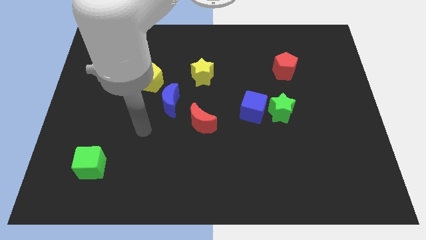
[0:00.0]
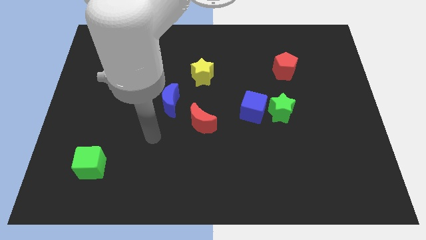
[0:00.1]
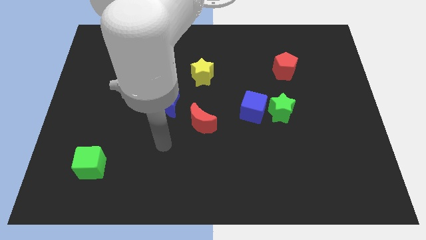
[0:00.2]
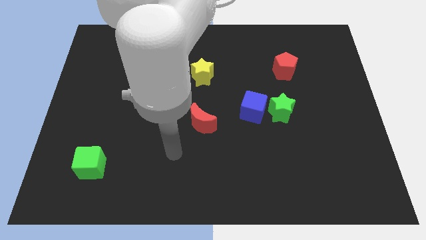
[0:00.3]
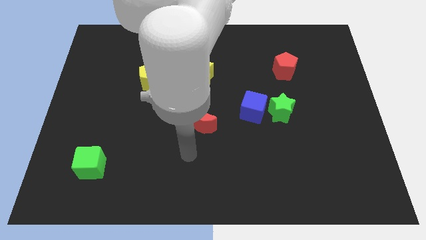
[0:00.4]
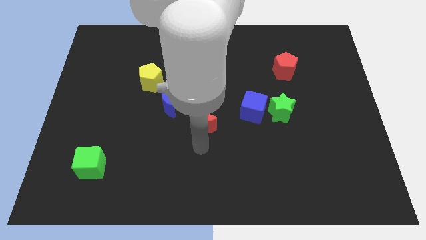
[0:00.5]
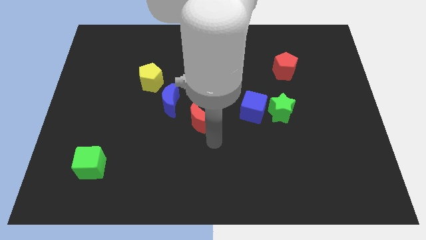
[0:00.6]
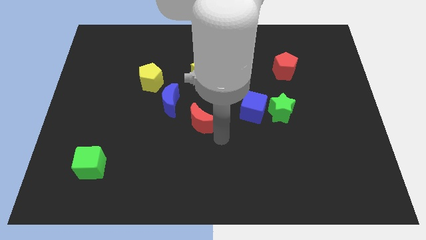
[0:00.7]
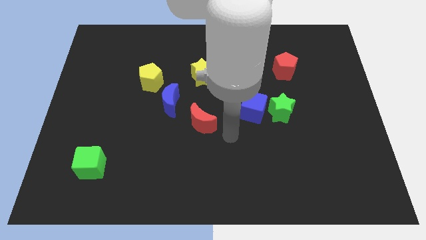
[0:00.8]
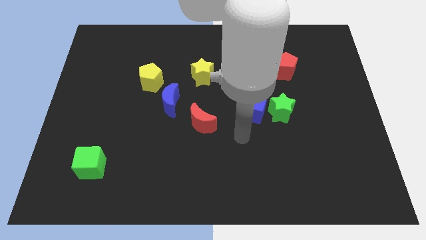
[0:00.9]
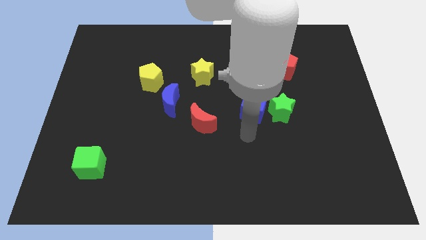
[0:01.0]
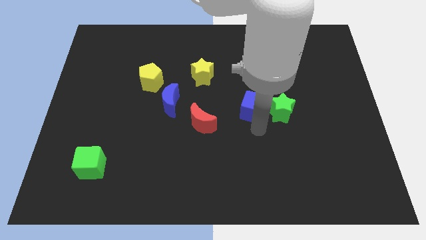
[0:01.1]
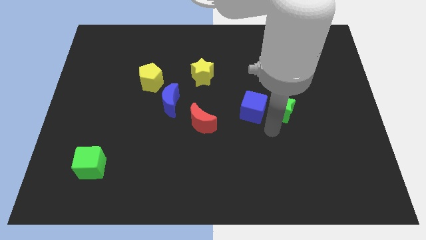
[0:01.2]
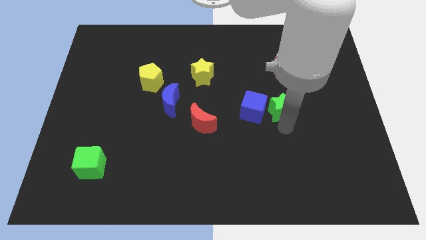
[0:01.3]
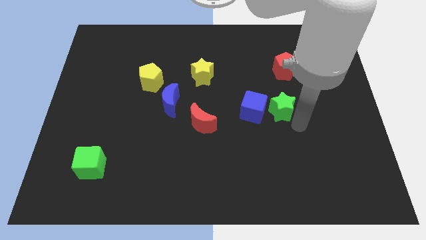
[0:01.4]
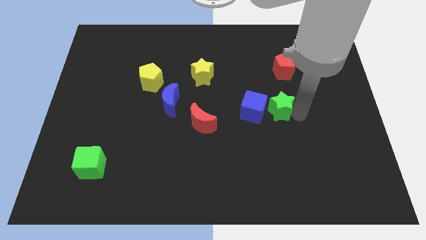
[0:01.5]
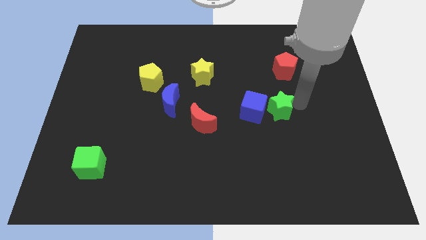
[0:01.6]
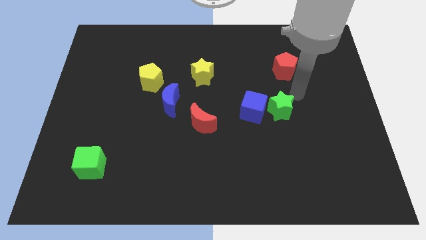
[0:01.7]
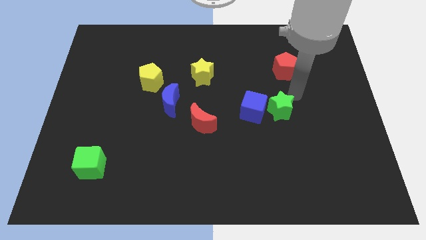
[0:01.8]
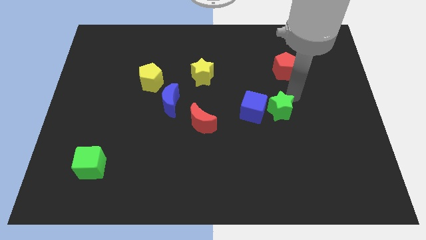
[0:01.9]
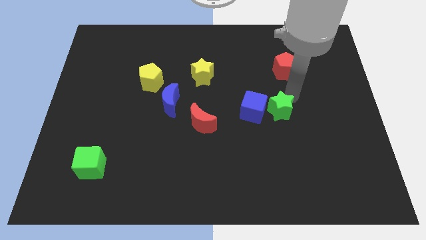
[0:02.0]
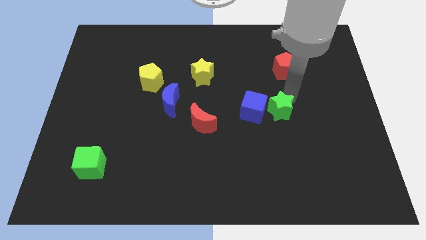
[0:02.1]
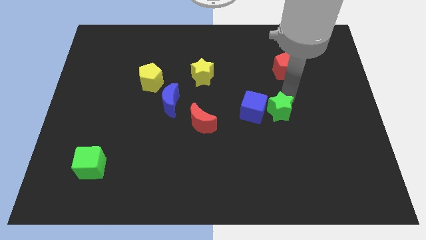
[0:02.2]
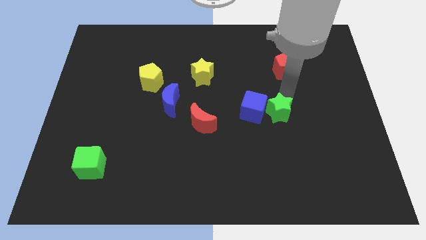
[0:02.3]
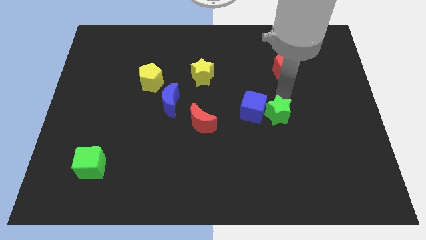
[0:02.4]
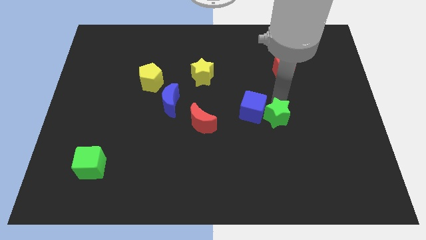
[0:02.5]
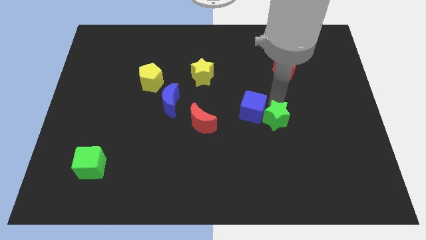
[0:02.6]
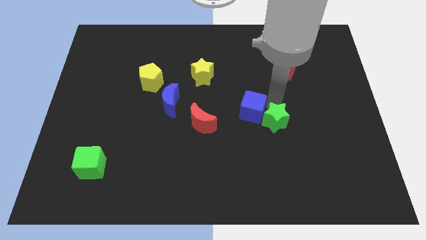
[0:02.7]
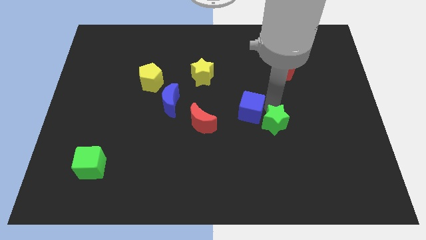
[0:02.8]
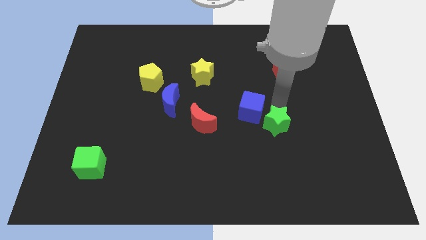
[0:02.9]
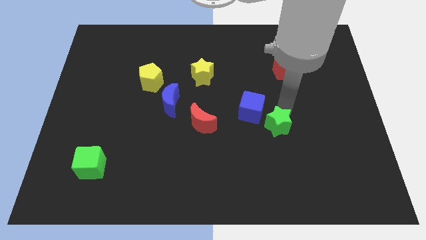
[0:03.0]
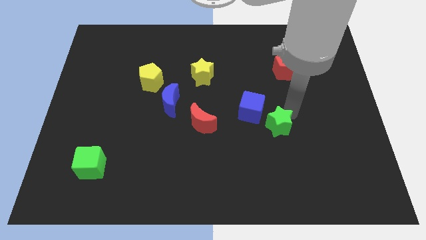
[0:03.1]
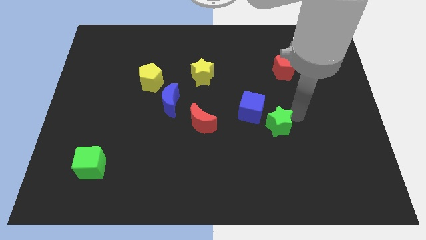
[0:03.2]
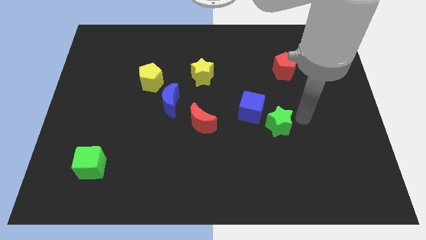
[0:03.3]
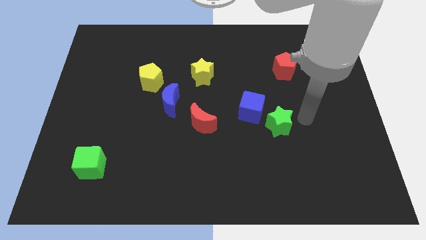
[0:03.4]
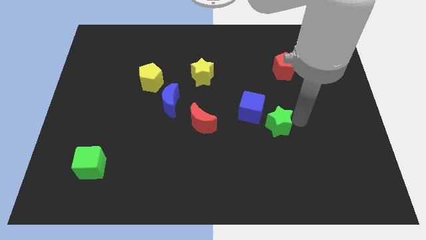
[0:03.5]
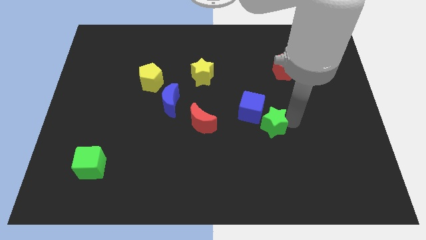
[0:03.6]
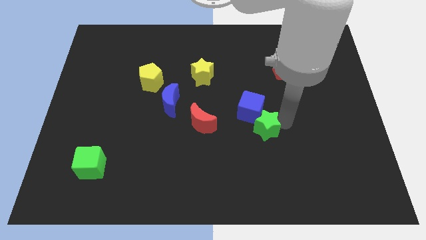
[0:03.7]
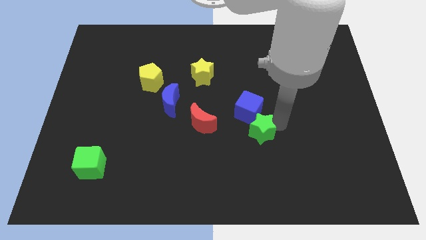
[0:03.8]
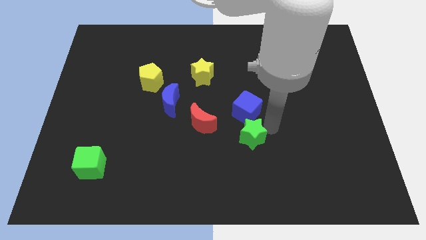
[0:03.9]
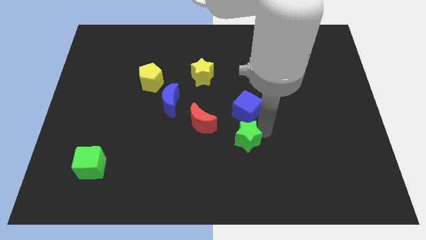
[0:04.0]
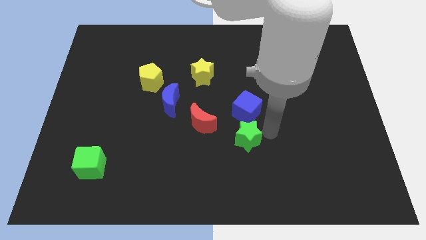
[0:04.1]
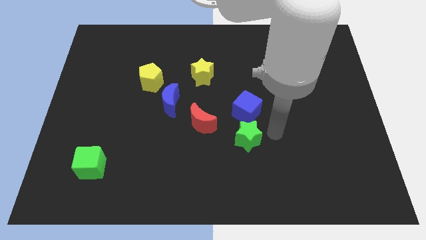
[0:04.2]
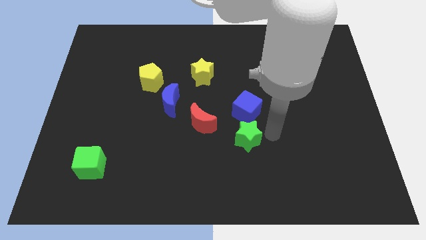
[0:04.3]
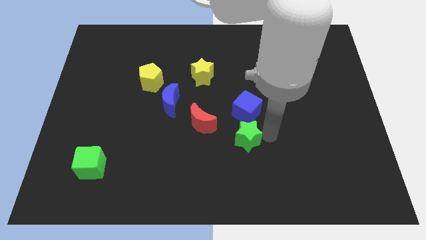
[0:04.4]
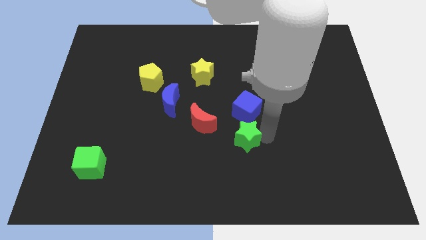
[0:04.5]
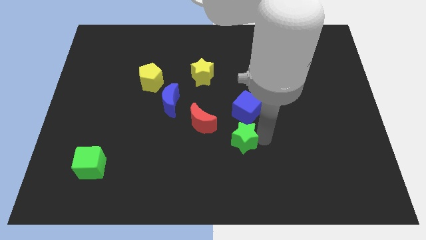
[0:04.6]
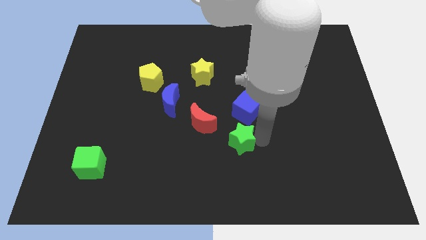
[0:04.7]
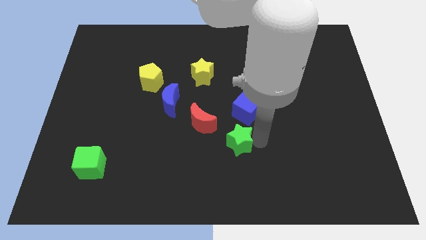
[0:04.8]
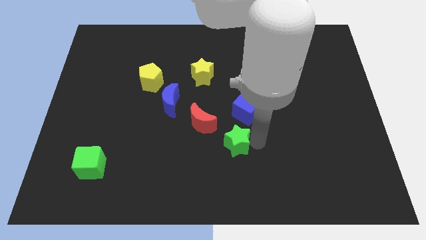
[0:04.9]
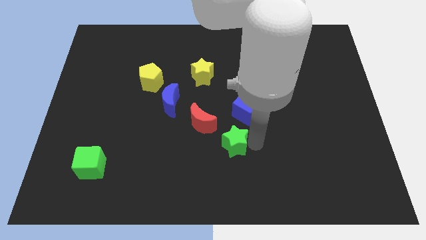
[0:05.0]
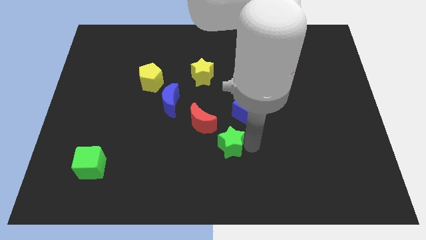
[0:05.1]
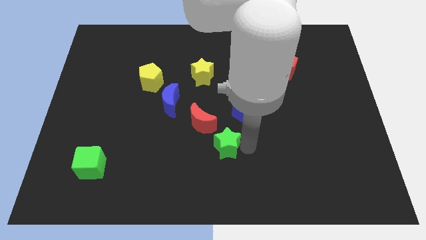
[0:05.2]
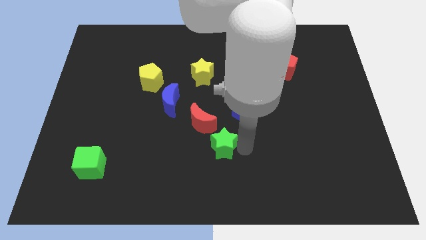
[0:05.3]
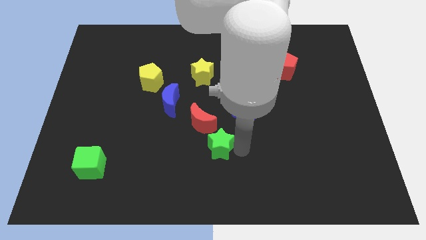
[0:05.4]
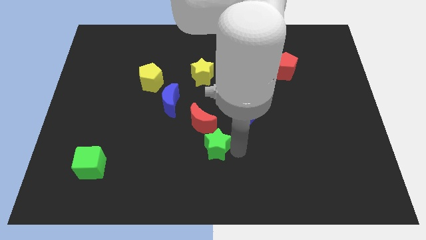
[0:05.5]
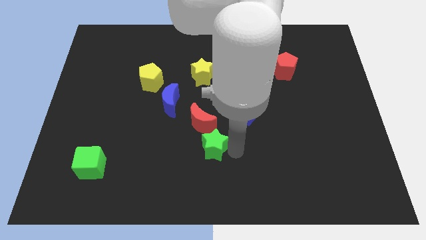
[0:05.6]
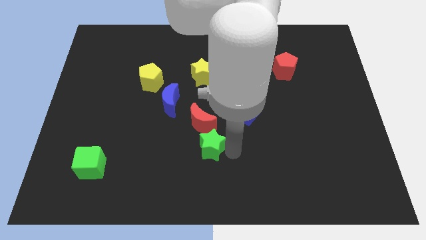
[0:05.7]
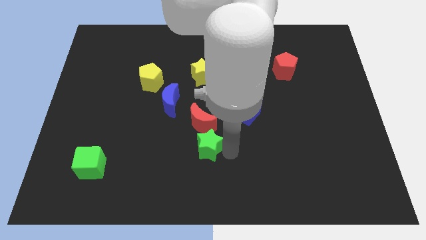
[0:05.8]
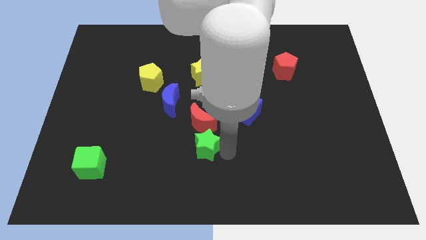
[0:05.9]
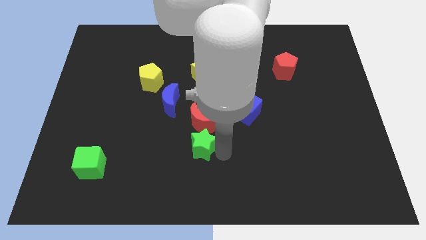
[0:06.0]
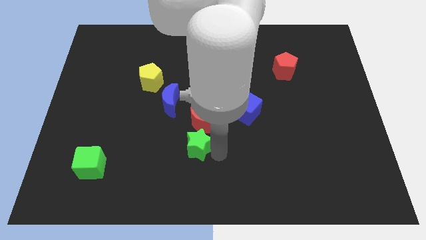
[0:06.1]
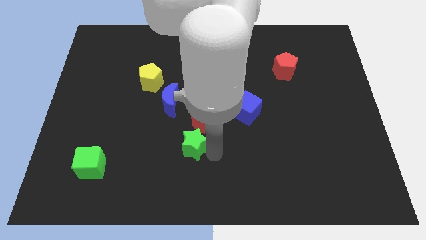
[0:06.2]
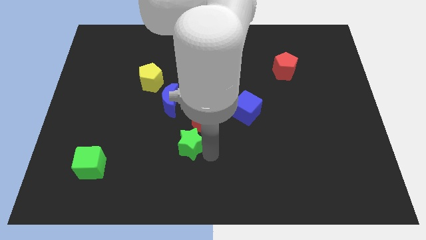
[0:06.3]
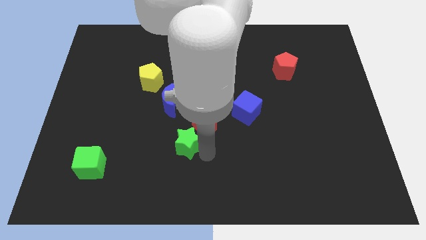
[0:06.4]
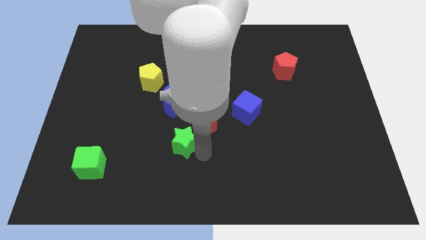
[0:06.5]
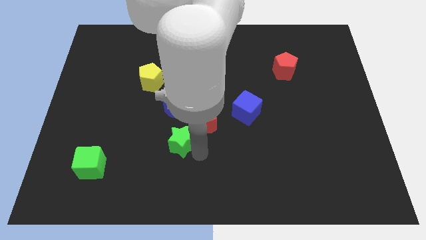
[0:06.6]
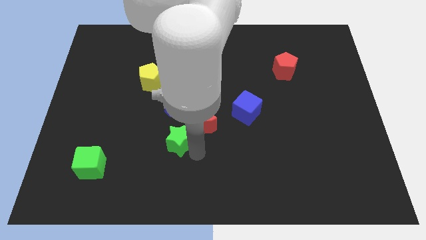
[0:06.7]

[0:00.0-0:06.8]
push the green star left

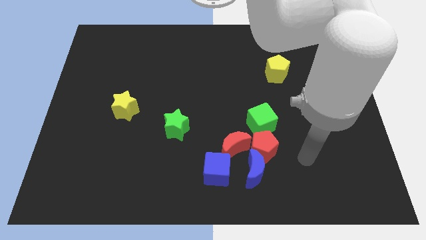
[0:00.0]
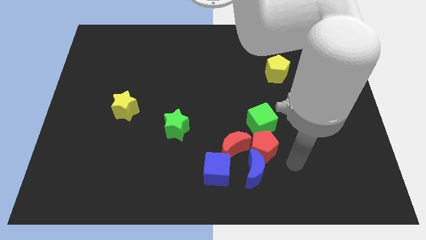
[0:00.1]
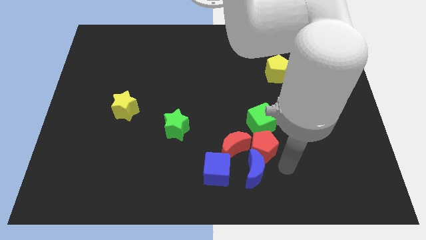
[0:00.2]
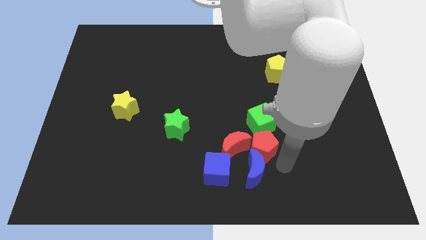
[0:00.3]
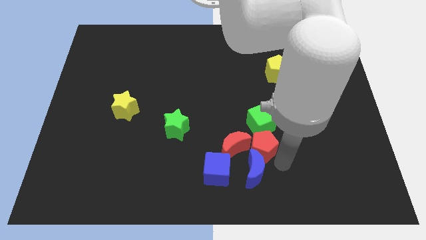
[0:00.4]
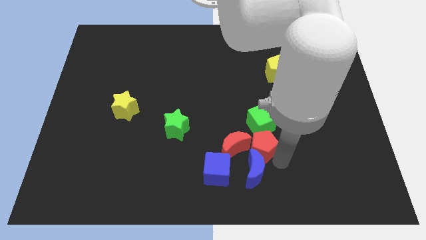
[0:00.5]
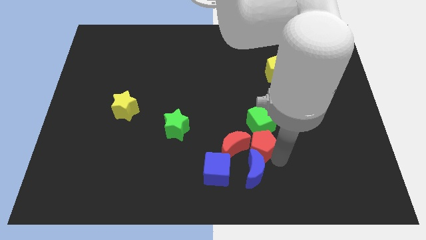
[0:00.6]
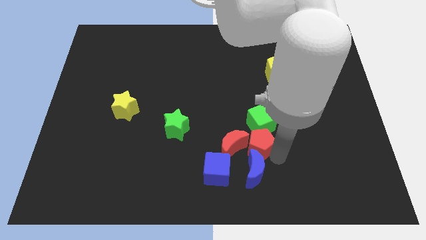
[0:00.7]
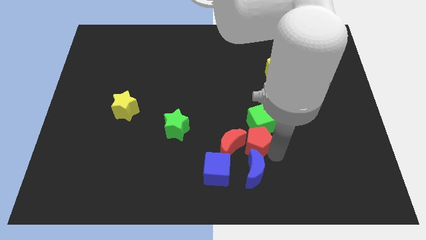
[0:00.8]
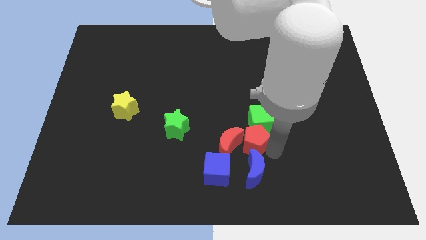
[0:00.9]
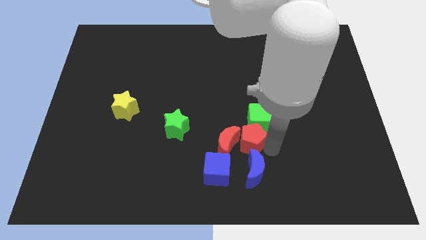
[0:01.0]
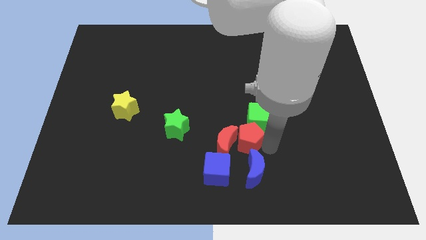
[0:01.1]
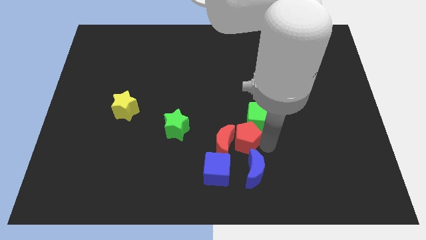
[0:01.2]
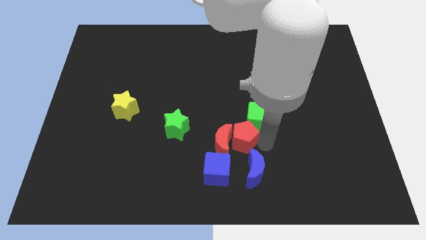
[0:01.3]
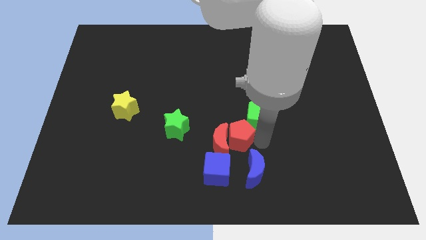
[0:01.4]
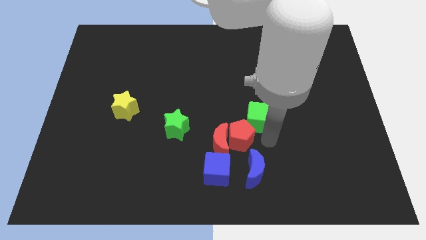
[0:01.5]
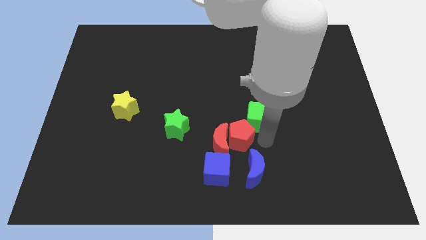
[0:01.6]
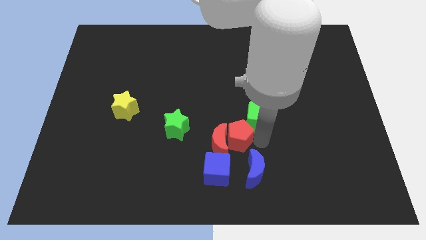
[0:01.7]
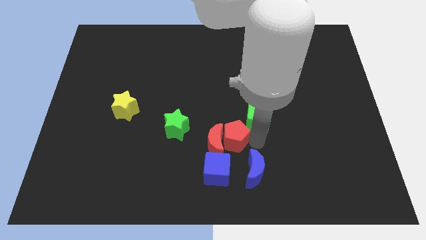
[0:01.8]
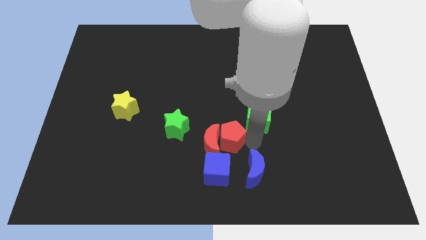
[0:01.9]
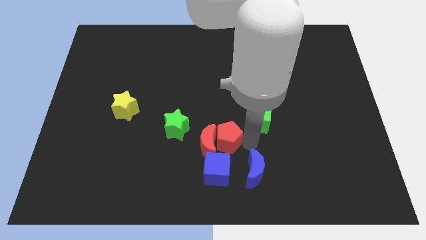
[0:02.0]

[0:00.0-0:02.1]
slightly slide the red pentagon left
